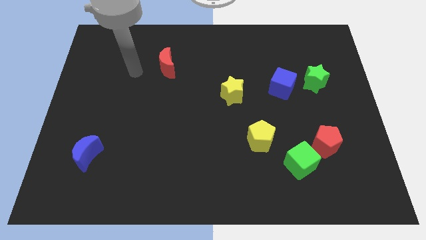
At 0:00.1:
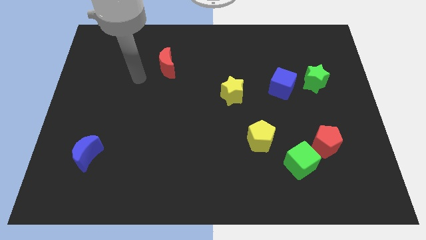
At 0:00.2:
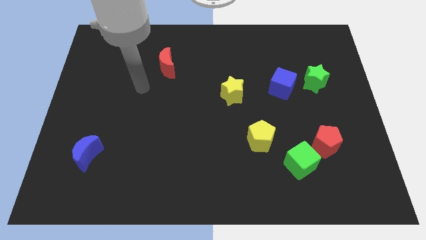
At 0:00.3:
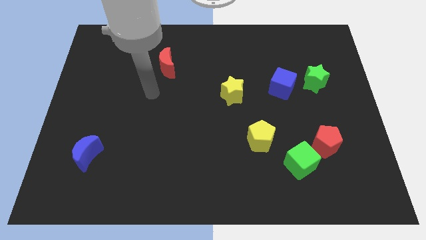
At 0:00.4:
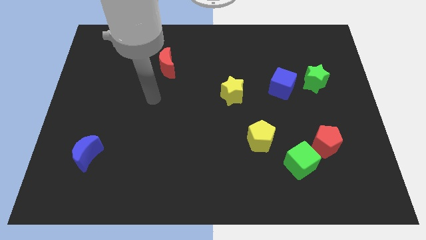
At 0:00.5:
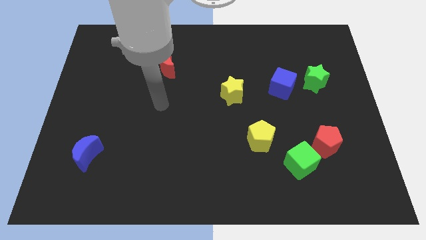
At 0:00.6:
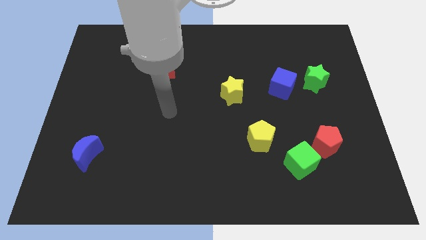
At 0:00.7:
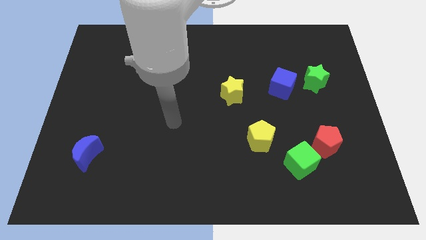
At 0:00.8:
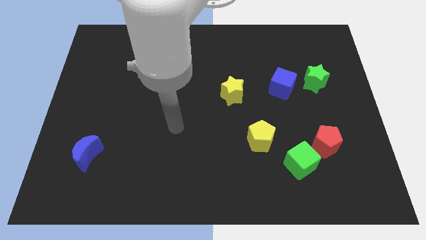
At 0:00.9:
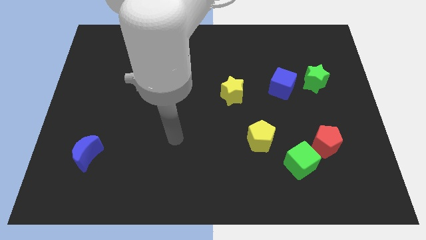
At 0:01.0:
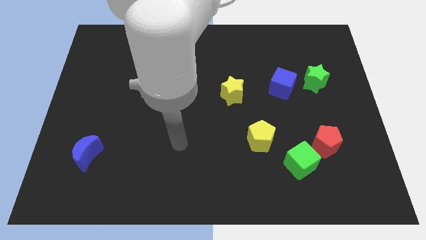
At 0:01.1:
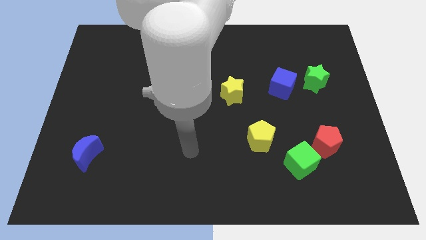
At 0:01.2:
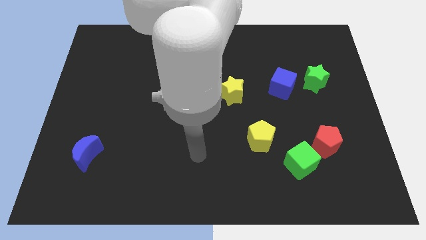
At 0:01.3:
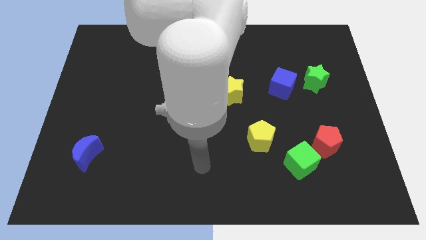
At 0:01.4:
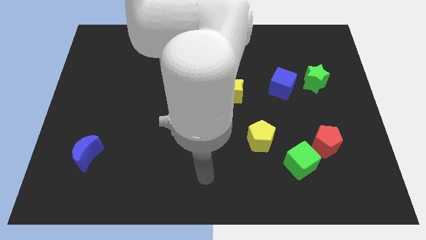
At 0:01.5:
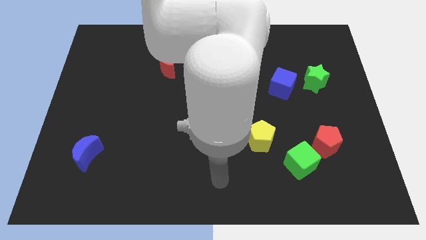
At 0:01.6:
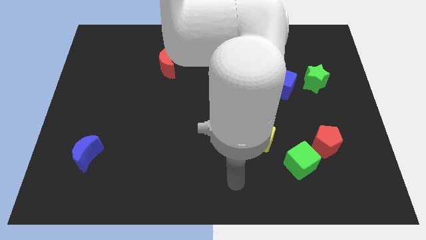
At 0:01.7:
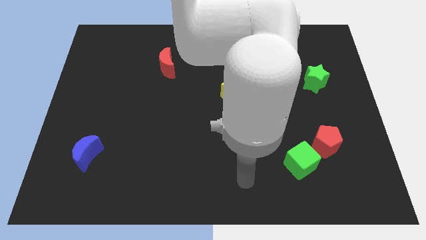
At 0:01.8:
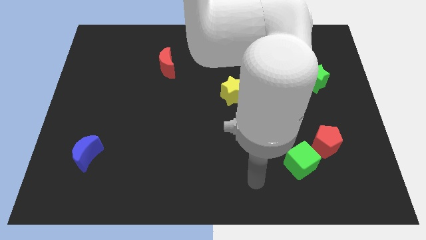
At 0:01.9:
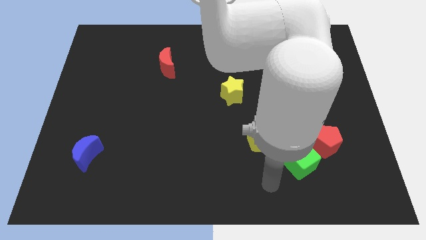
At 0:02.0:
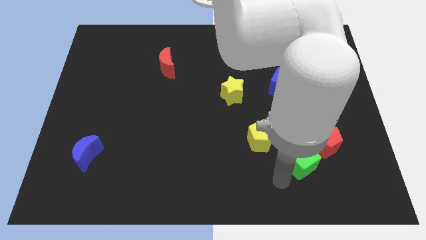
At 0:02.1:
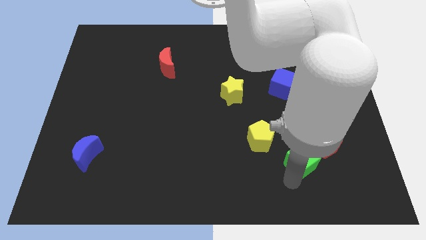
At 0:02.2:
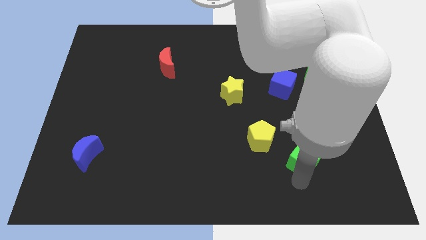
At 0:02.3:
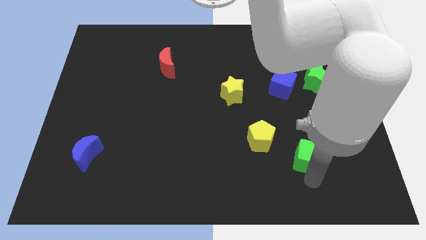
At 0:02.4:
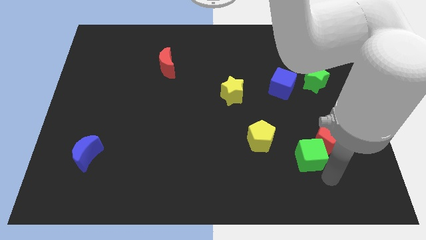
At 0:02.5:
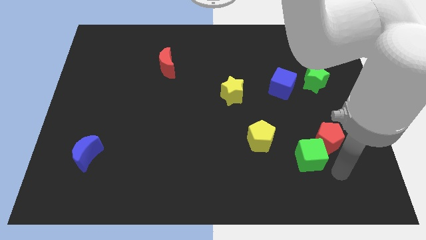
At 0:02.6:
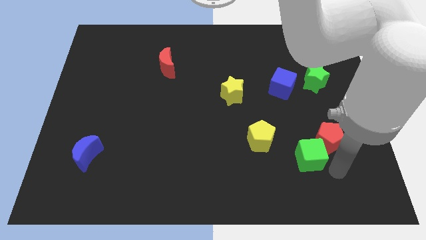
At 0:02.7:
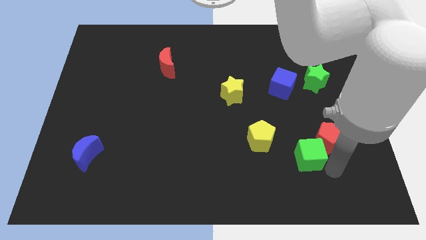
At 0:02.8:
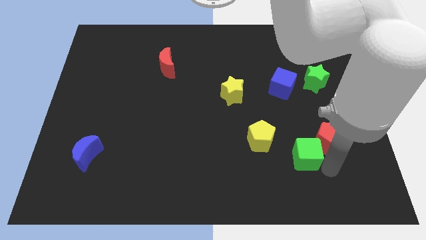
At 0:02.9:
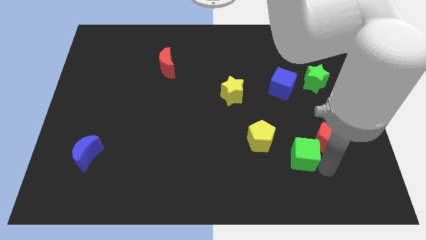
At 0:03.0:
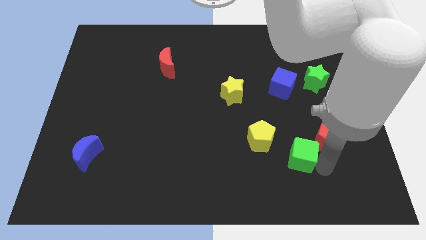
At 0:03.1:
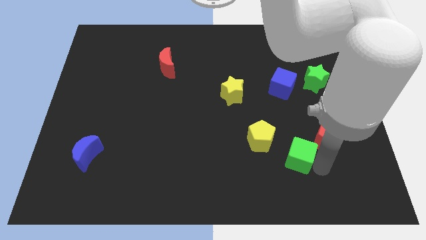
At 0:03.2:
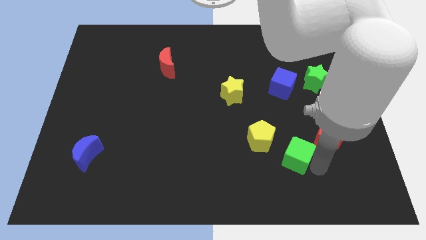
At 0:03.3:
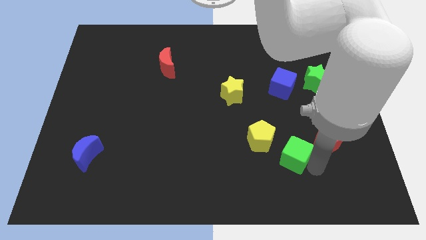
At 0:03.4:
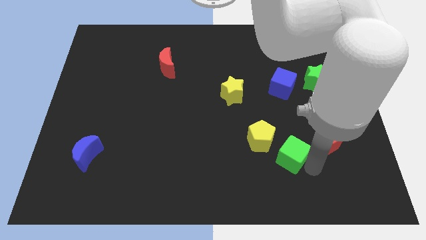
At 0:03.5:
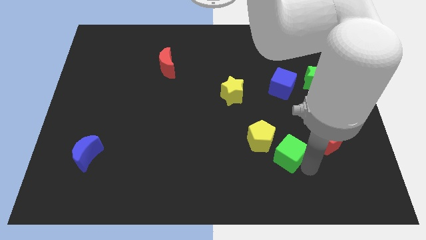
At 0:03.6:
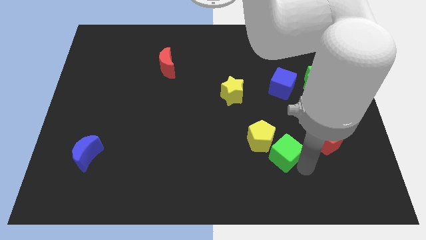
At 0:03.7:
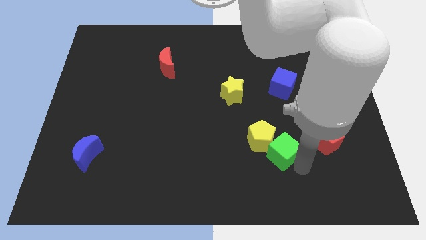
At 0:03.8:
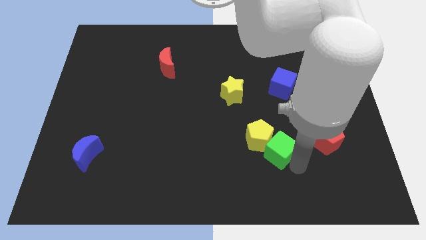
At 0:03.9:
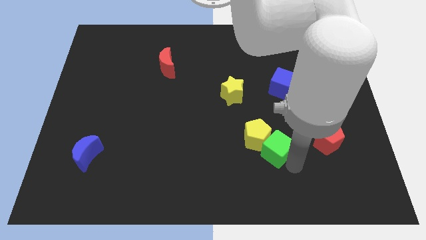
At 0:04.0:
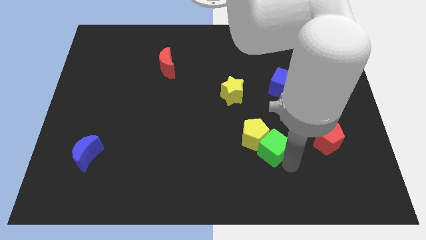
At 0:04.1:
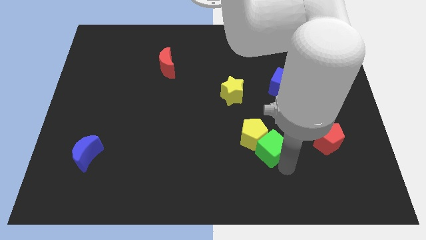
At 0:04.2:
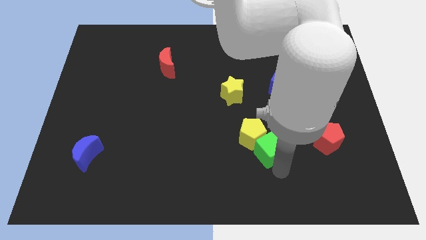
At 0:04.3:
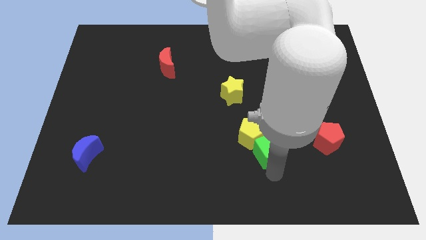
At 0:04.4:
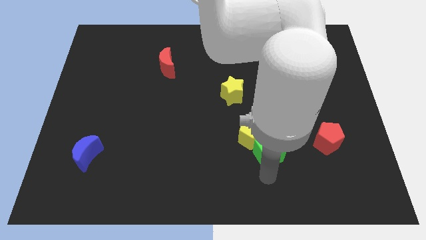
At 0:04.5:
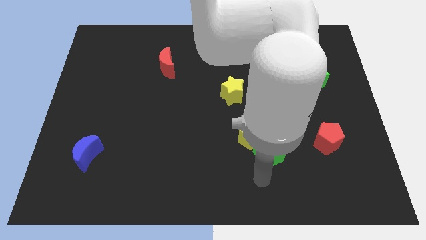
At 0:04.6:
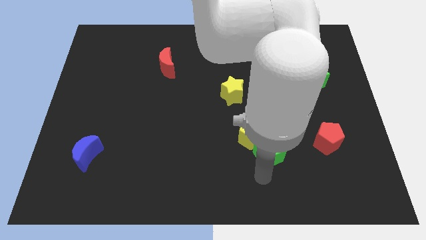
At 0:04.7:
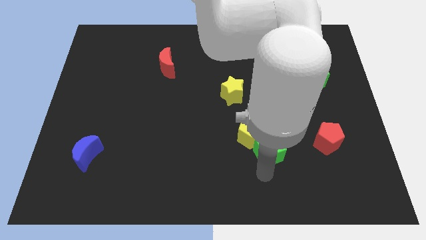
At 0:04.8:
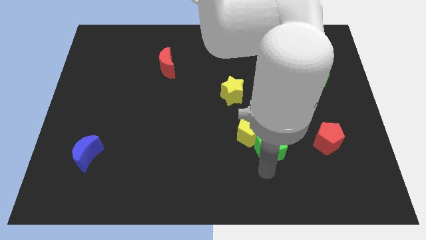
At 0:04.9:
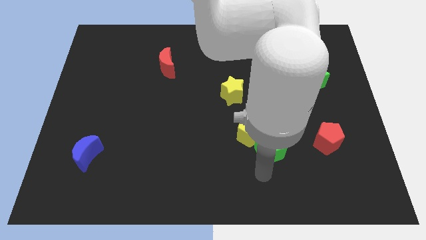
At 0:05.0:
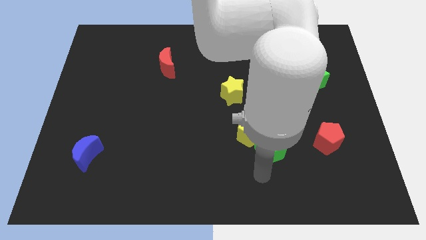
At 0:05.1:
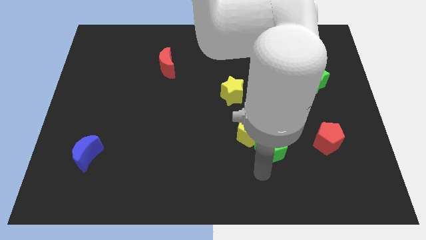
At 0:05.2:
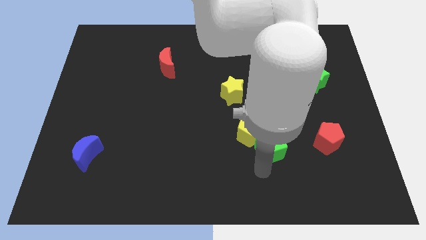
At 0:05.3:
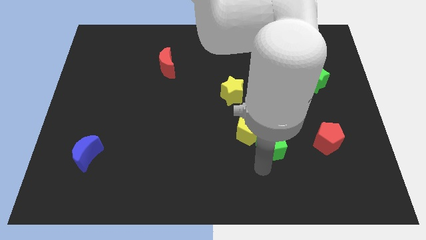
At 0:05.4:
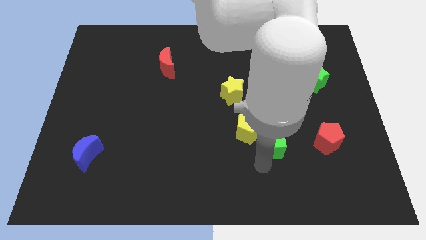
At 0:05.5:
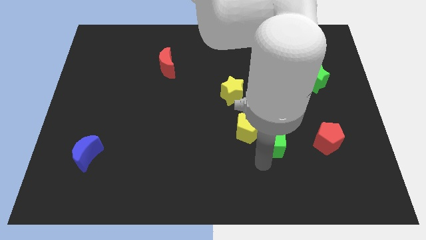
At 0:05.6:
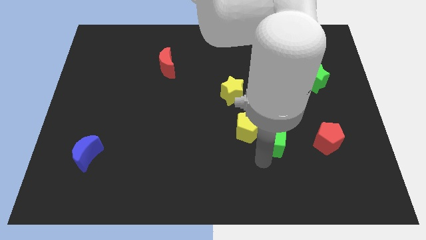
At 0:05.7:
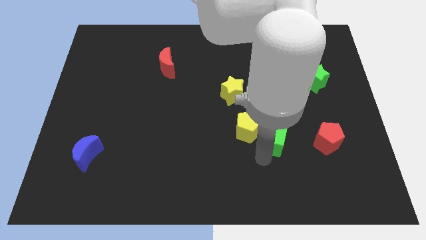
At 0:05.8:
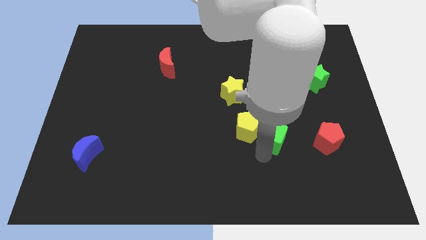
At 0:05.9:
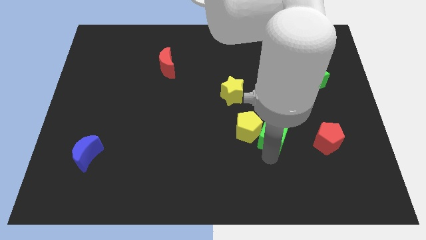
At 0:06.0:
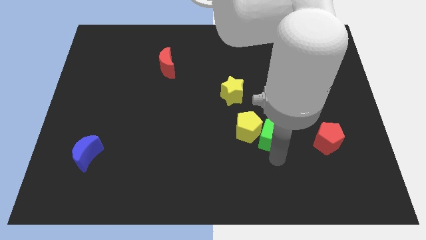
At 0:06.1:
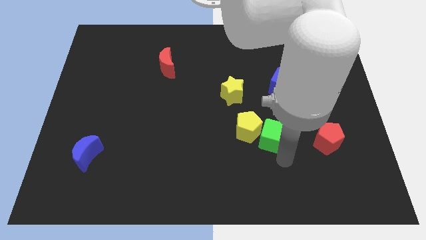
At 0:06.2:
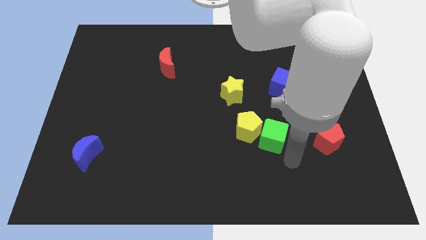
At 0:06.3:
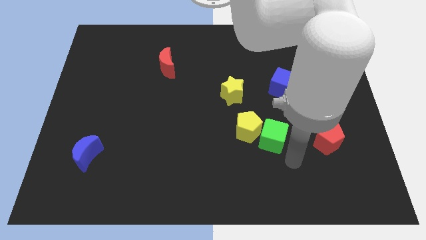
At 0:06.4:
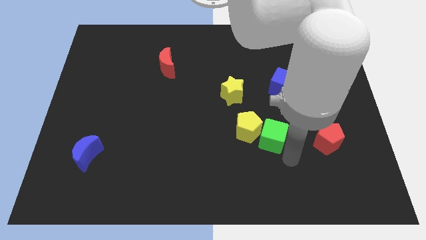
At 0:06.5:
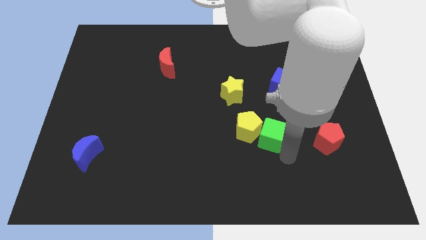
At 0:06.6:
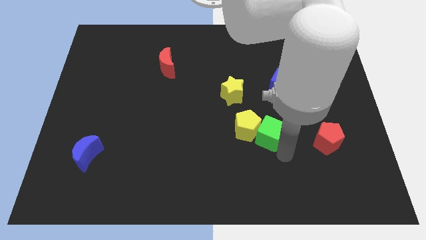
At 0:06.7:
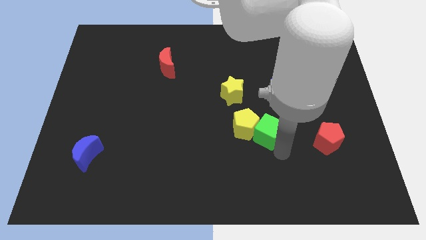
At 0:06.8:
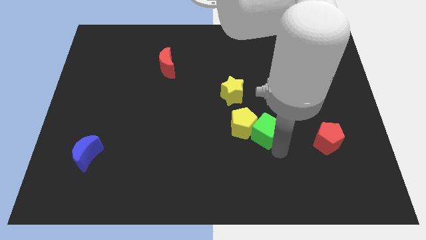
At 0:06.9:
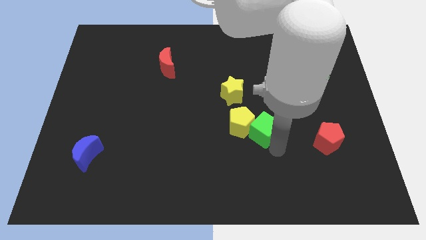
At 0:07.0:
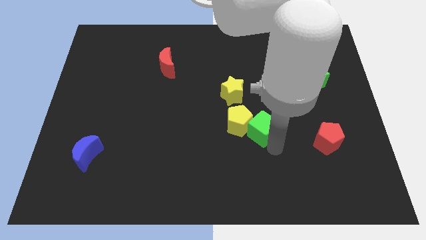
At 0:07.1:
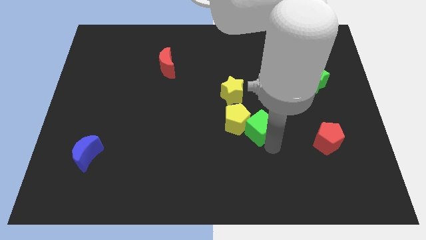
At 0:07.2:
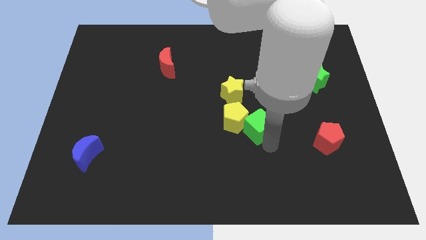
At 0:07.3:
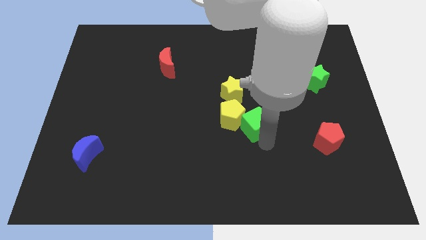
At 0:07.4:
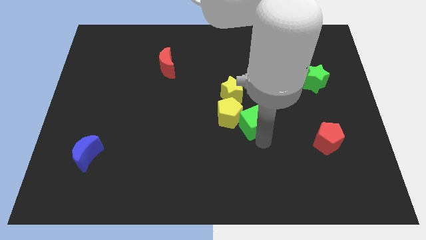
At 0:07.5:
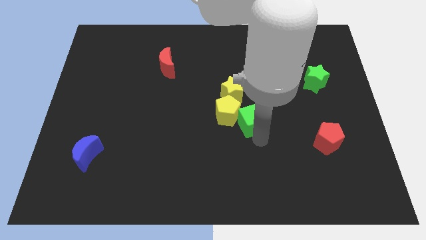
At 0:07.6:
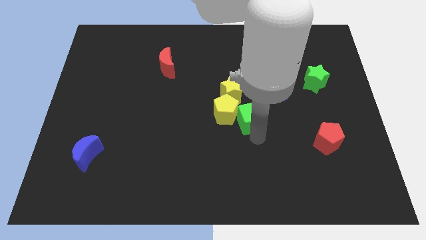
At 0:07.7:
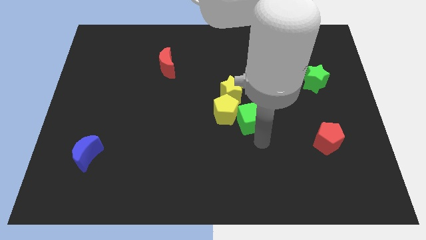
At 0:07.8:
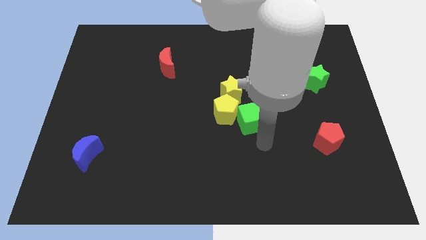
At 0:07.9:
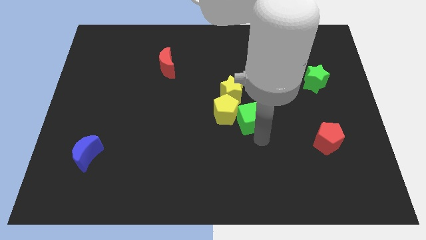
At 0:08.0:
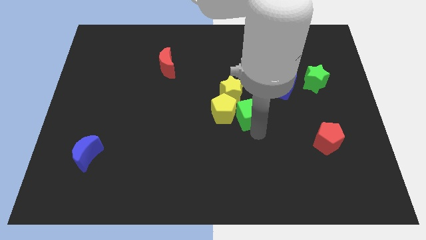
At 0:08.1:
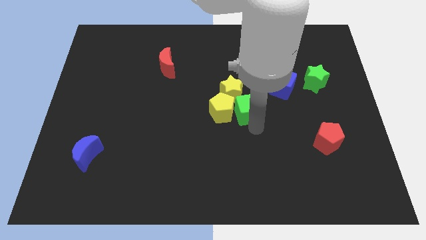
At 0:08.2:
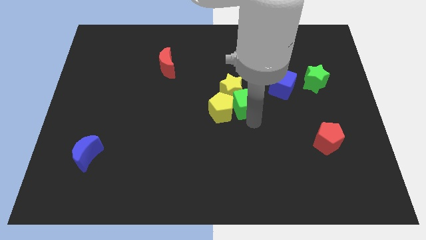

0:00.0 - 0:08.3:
push the green cube to the yellow star
